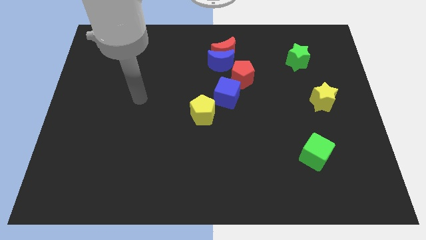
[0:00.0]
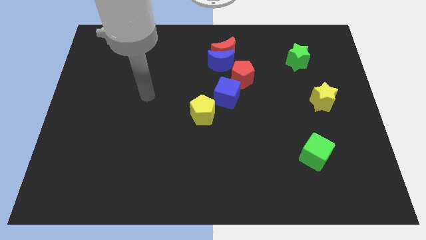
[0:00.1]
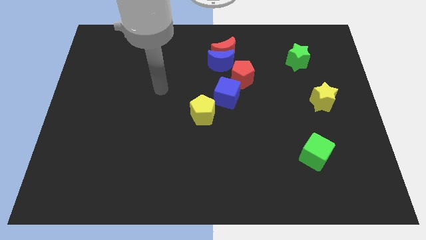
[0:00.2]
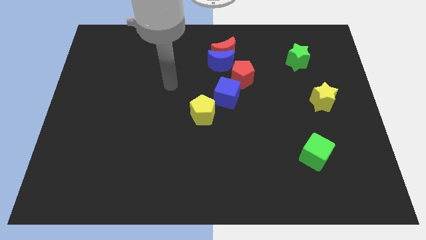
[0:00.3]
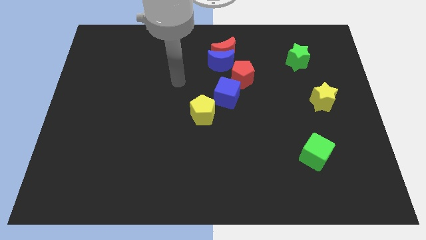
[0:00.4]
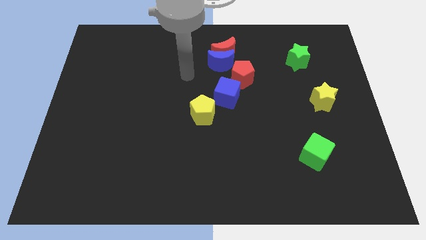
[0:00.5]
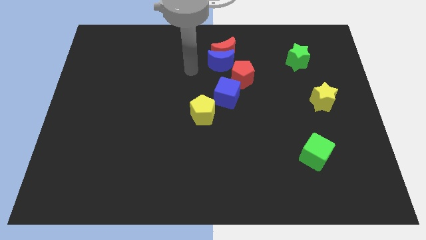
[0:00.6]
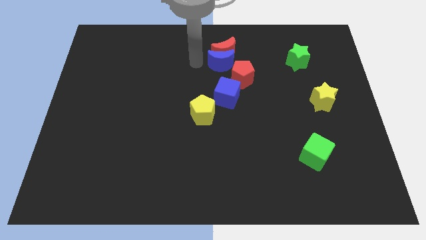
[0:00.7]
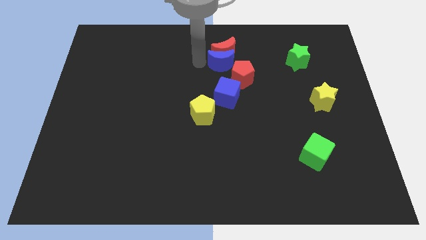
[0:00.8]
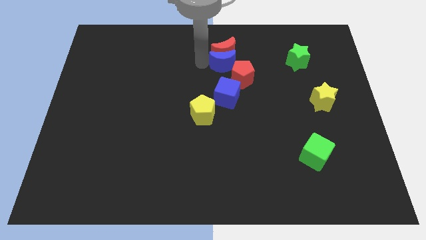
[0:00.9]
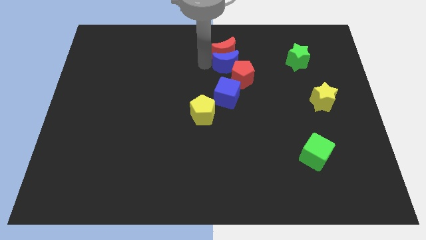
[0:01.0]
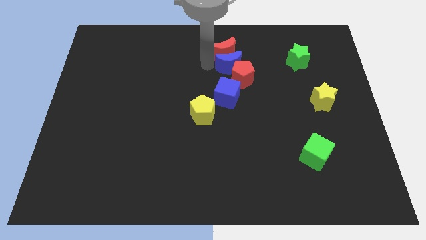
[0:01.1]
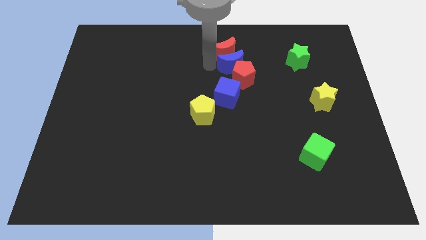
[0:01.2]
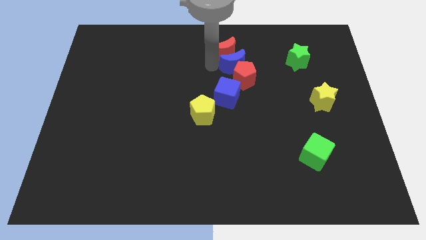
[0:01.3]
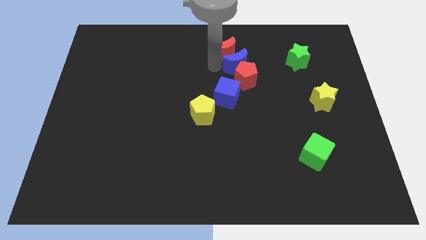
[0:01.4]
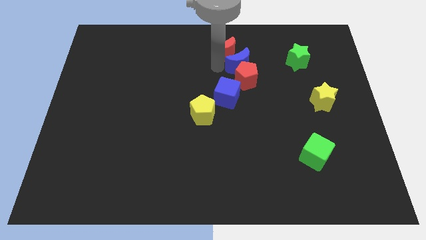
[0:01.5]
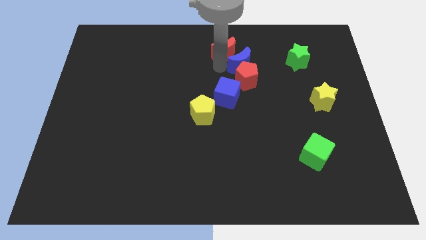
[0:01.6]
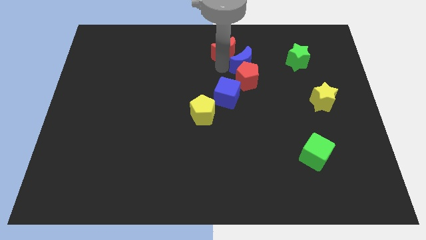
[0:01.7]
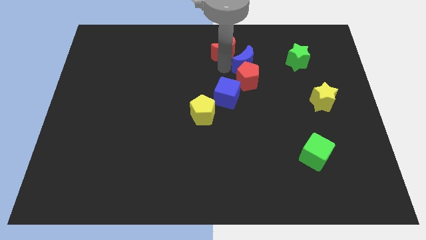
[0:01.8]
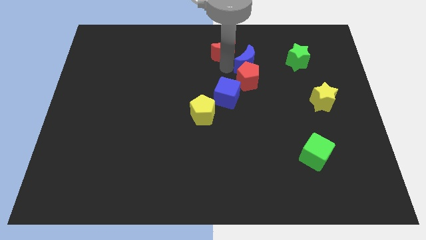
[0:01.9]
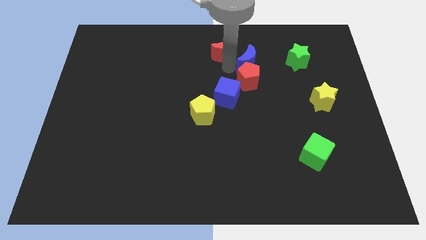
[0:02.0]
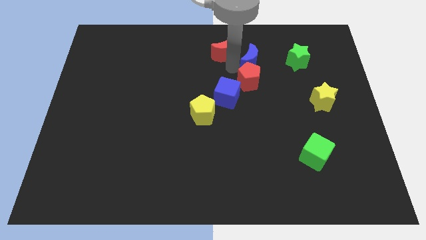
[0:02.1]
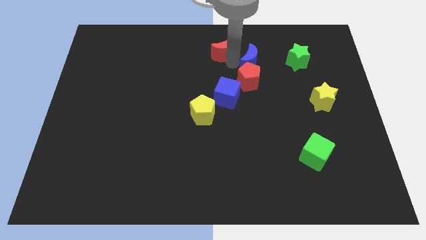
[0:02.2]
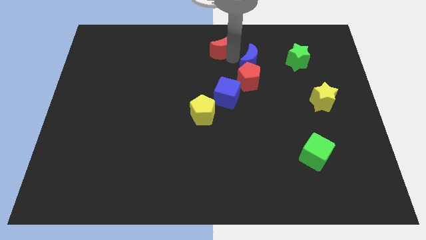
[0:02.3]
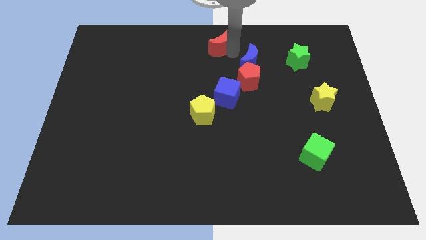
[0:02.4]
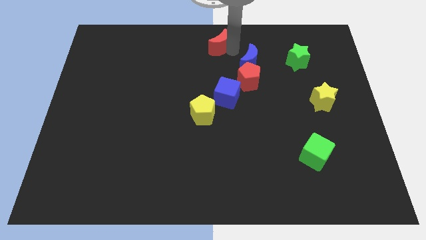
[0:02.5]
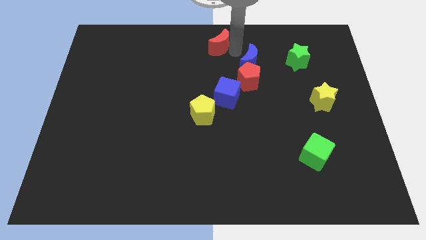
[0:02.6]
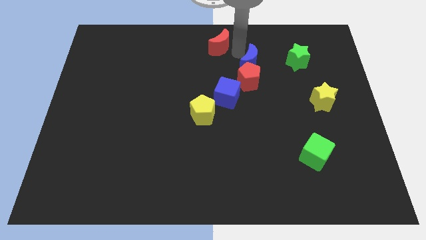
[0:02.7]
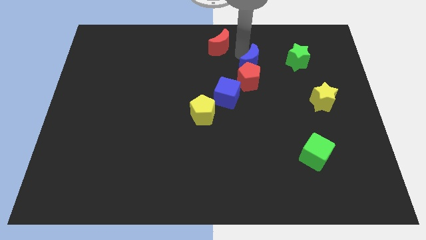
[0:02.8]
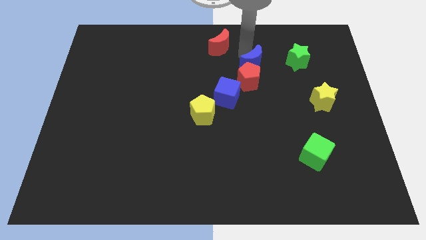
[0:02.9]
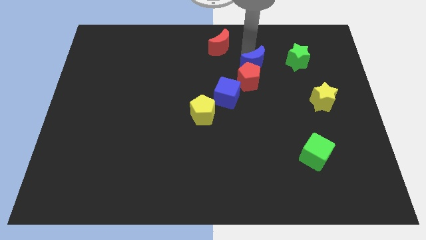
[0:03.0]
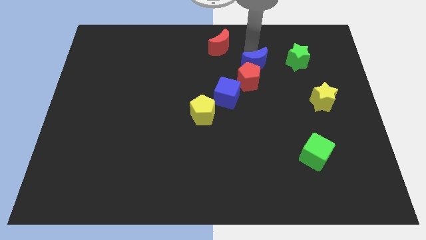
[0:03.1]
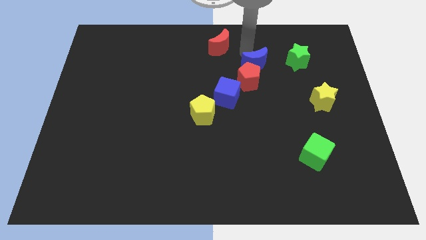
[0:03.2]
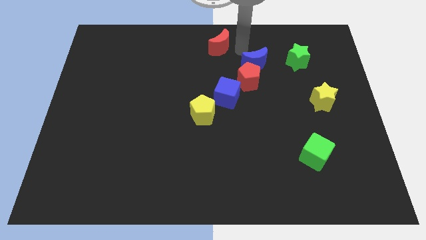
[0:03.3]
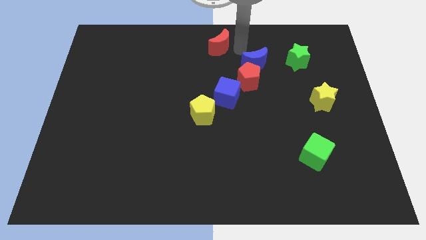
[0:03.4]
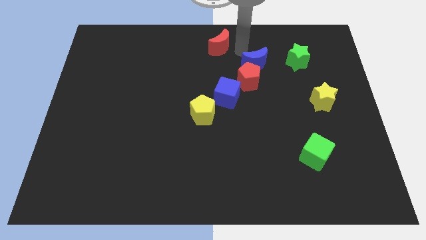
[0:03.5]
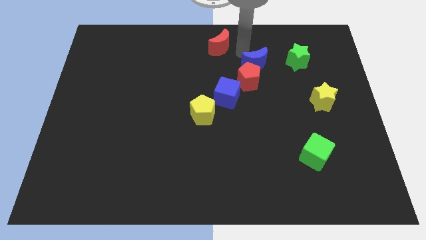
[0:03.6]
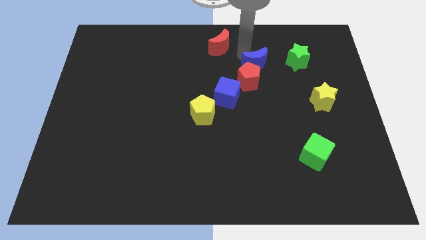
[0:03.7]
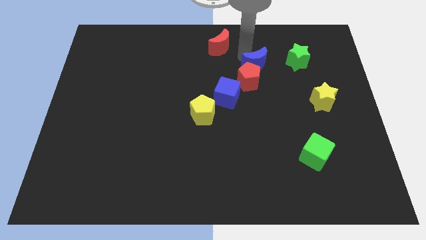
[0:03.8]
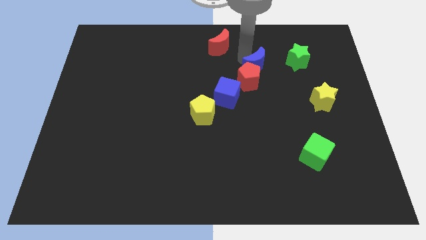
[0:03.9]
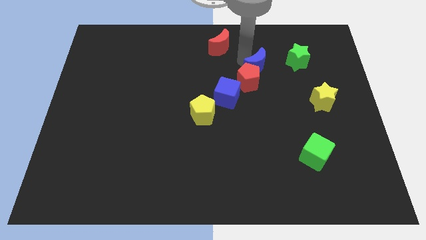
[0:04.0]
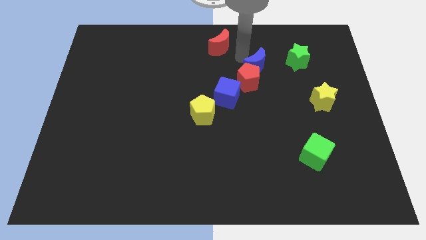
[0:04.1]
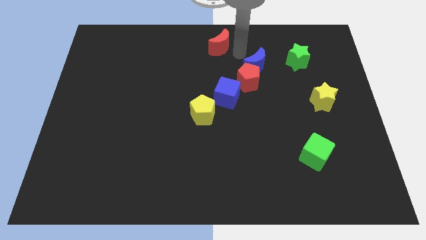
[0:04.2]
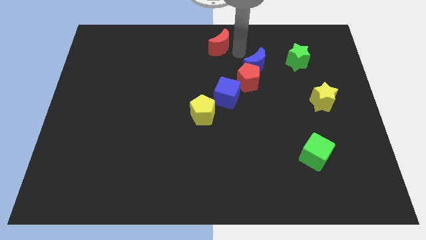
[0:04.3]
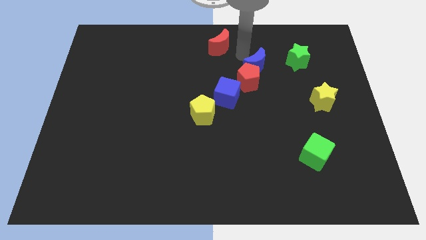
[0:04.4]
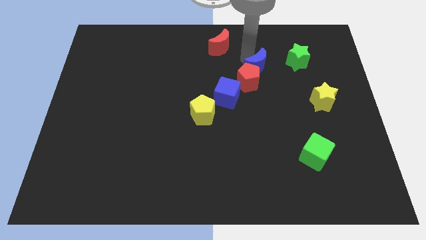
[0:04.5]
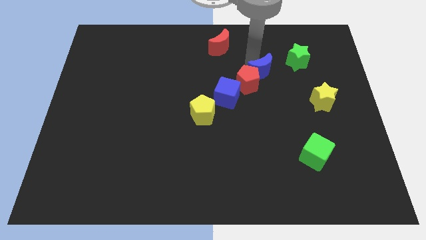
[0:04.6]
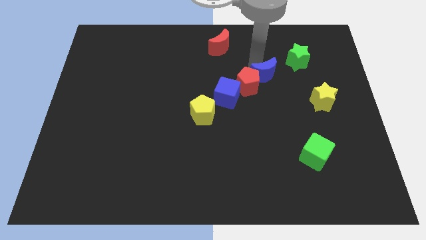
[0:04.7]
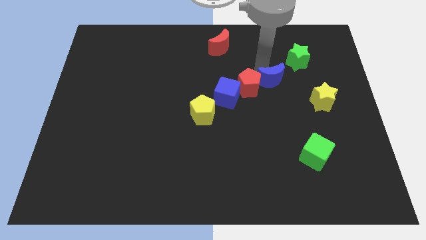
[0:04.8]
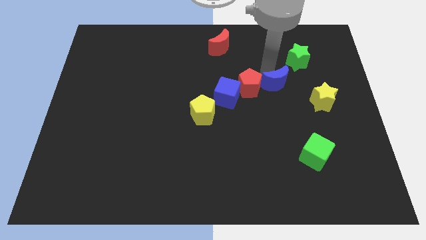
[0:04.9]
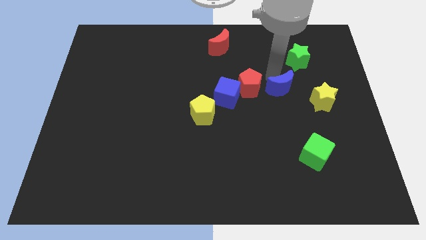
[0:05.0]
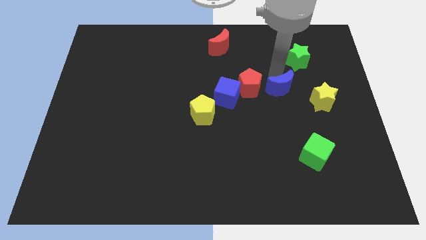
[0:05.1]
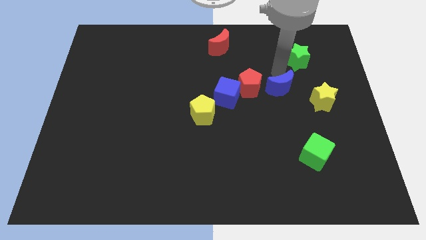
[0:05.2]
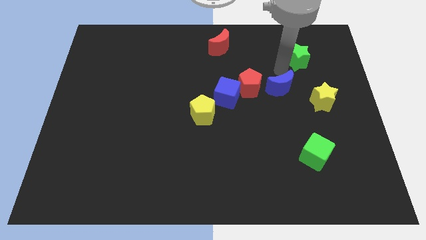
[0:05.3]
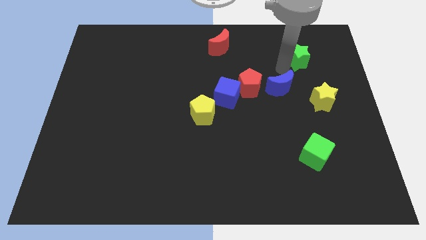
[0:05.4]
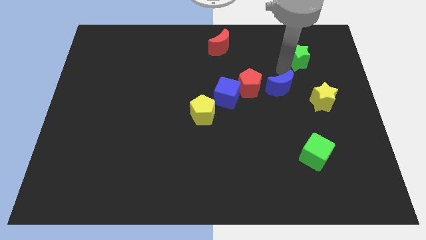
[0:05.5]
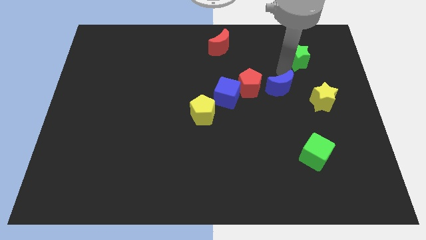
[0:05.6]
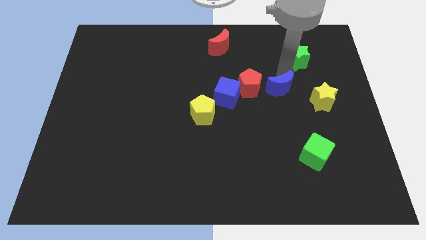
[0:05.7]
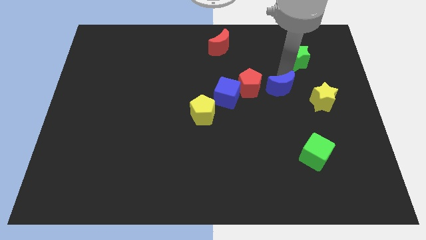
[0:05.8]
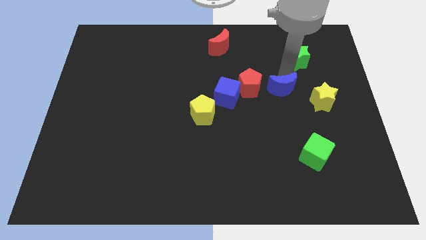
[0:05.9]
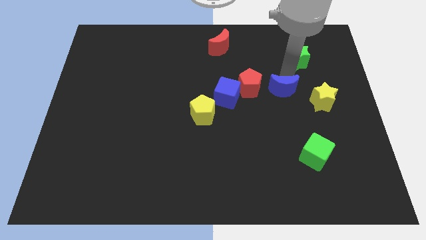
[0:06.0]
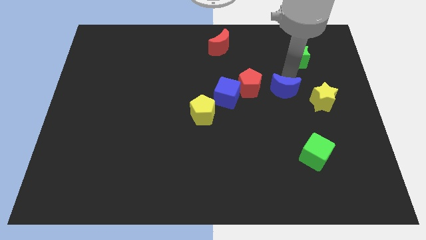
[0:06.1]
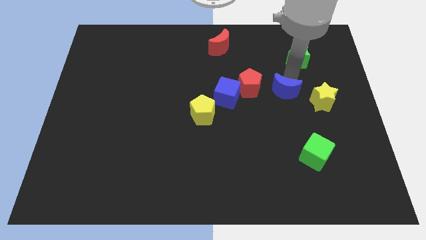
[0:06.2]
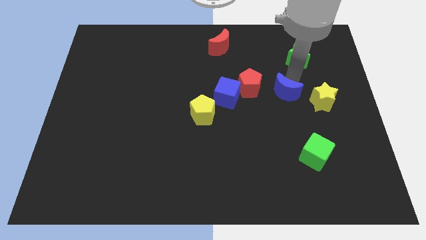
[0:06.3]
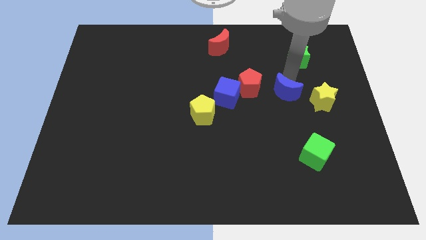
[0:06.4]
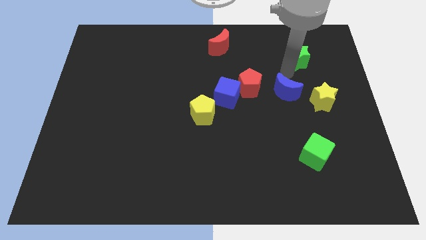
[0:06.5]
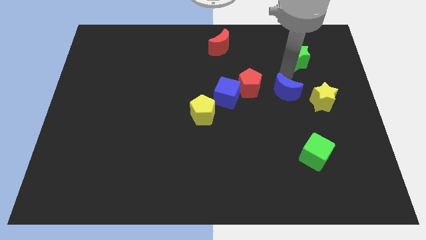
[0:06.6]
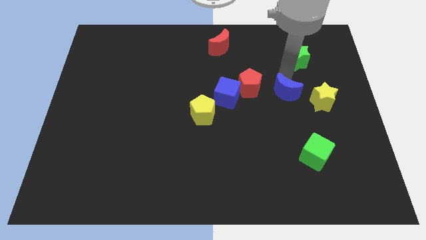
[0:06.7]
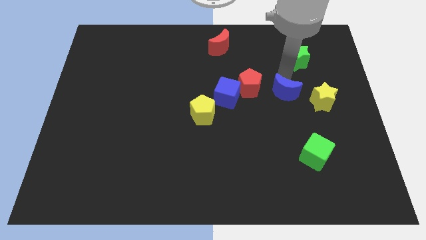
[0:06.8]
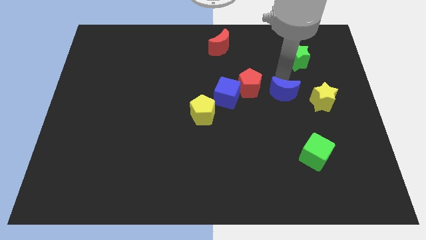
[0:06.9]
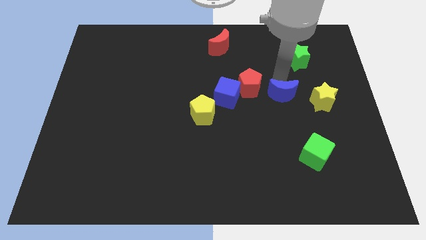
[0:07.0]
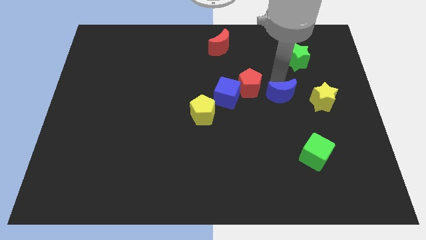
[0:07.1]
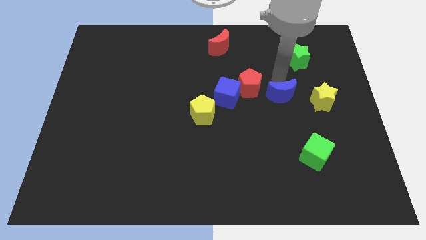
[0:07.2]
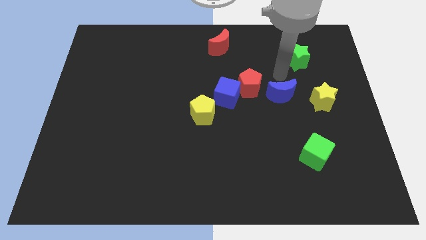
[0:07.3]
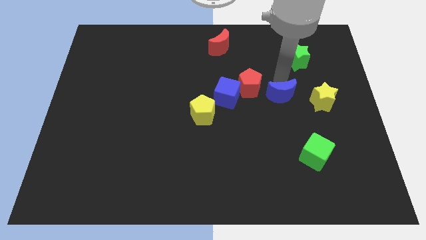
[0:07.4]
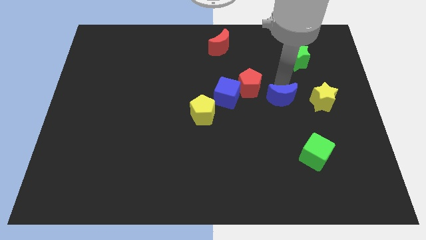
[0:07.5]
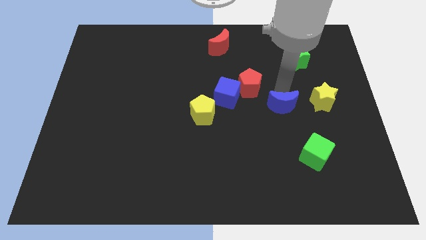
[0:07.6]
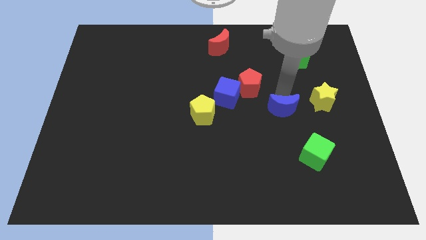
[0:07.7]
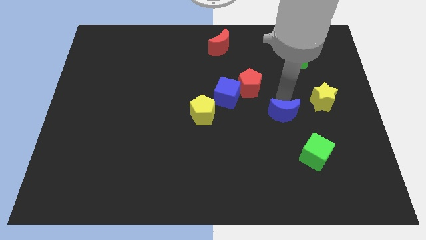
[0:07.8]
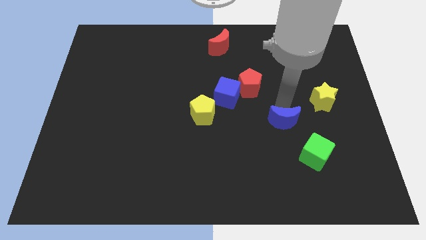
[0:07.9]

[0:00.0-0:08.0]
put the blue moon diagonally up and to the left of the green cube
